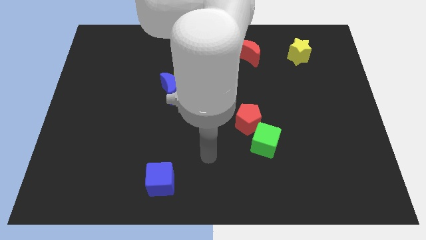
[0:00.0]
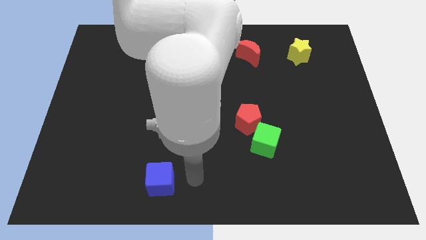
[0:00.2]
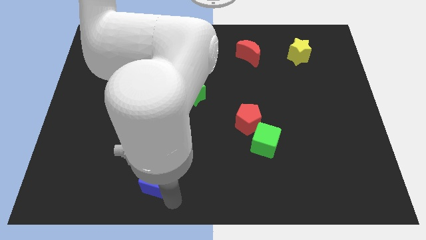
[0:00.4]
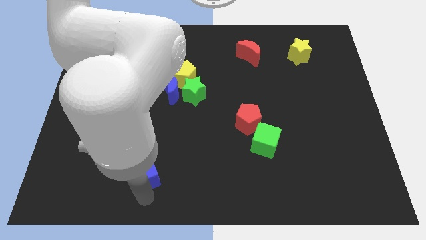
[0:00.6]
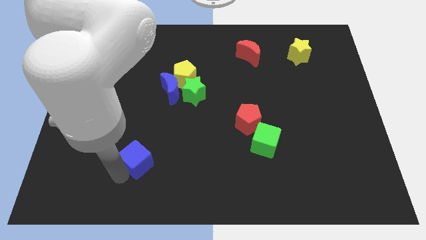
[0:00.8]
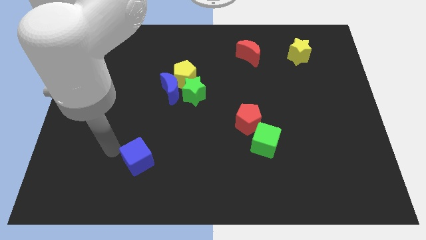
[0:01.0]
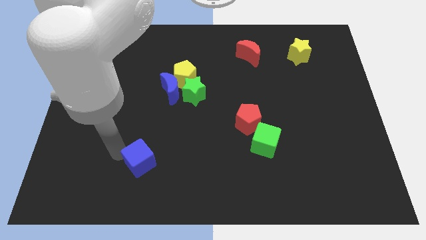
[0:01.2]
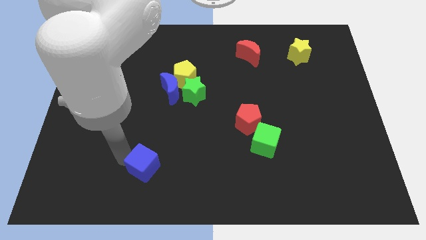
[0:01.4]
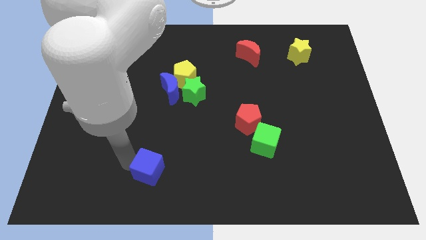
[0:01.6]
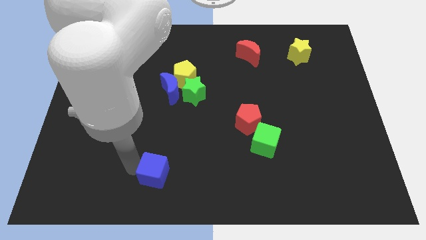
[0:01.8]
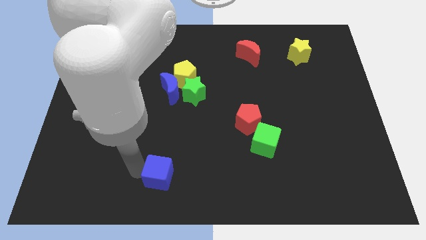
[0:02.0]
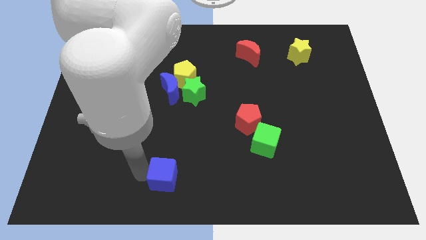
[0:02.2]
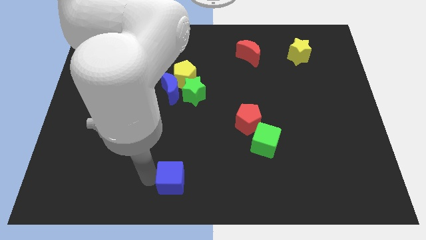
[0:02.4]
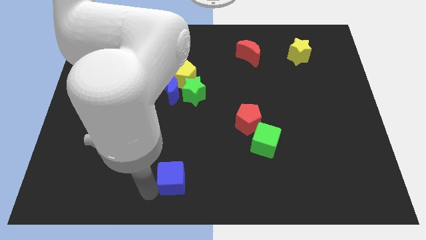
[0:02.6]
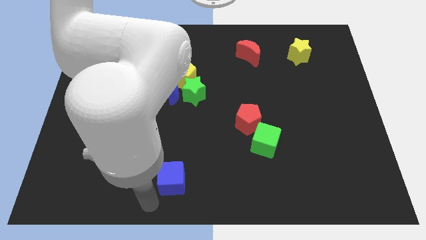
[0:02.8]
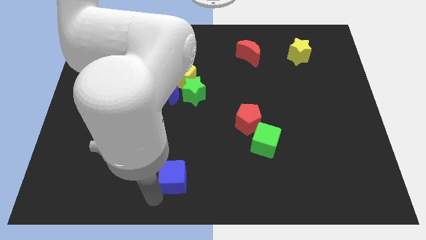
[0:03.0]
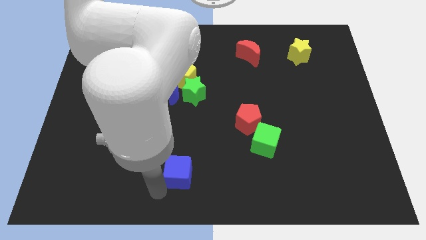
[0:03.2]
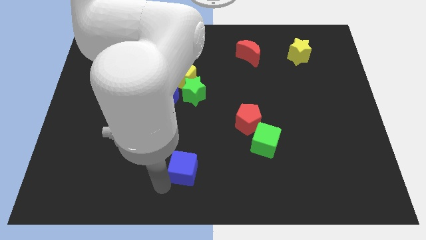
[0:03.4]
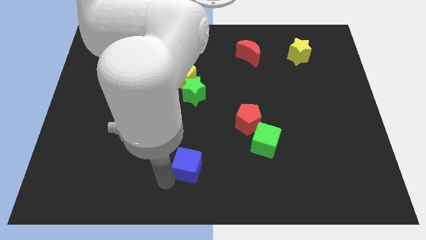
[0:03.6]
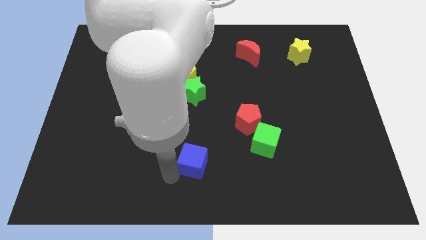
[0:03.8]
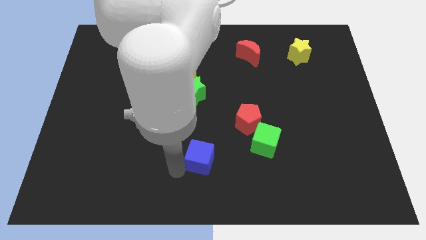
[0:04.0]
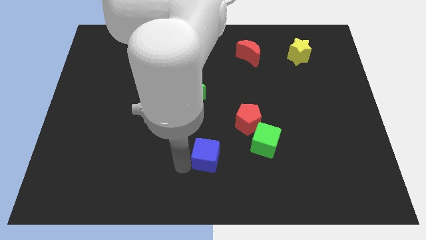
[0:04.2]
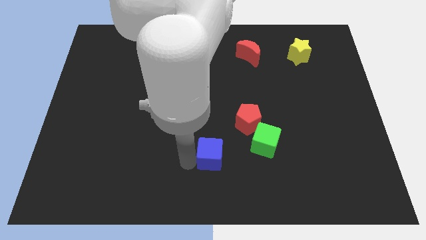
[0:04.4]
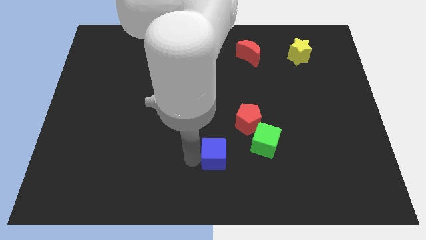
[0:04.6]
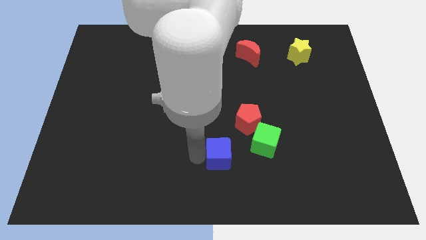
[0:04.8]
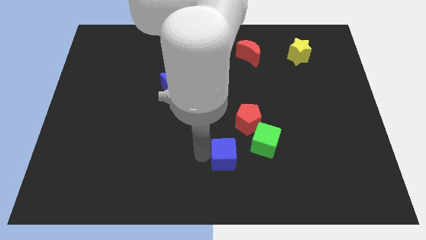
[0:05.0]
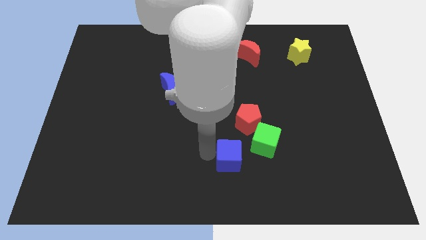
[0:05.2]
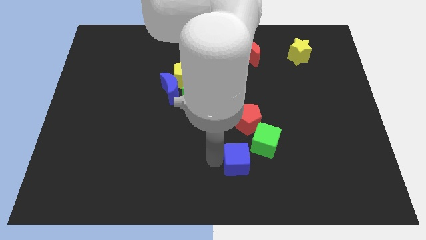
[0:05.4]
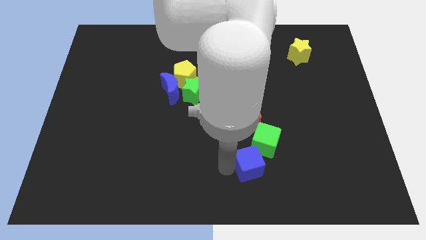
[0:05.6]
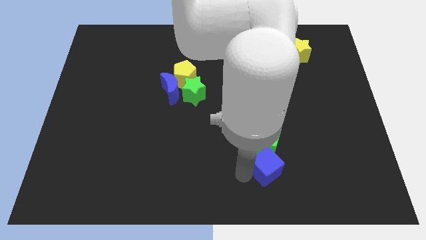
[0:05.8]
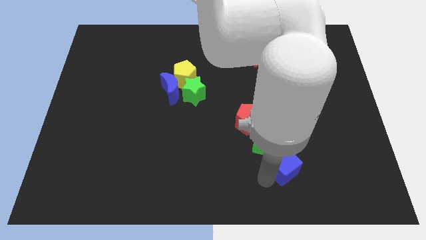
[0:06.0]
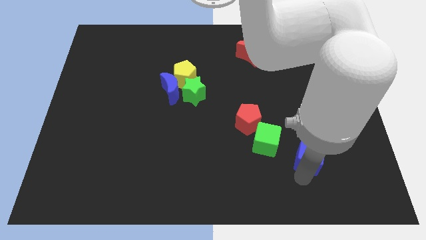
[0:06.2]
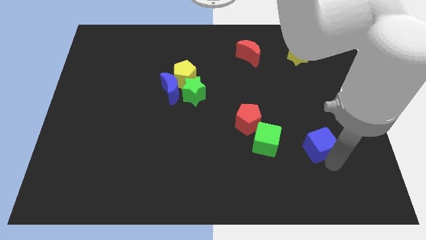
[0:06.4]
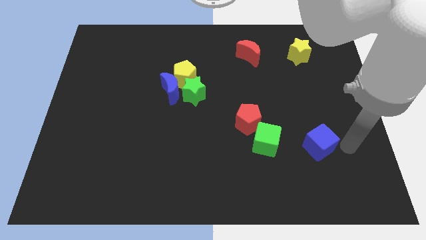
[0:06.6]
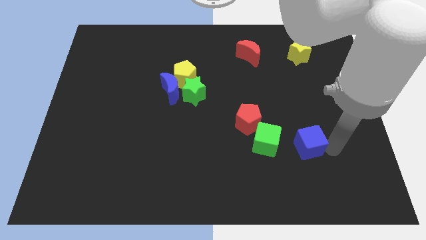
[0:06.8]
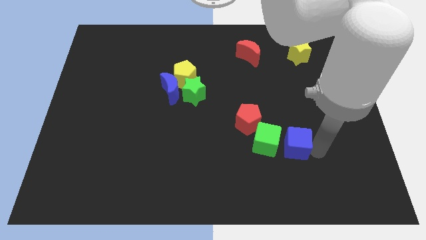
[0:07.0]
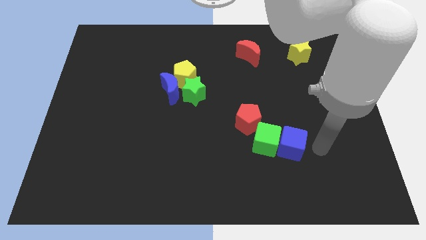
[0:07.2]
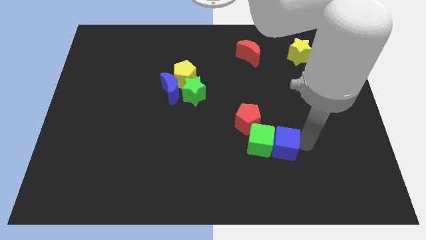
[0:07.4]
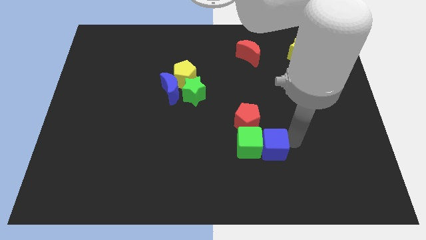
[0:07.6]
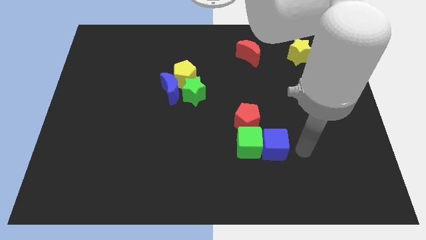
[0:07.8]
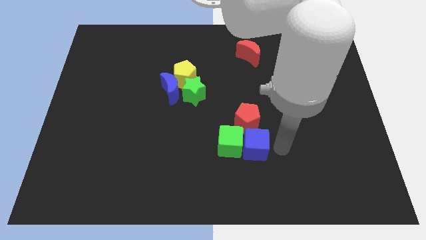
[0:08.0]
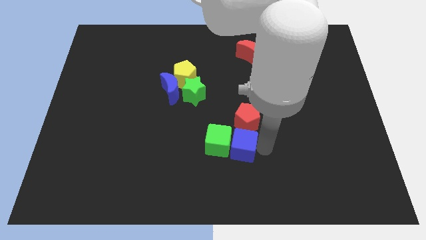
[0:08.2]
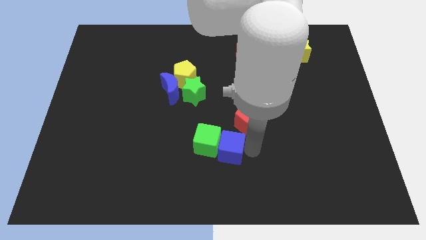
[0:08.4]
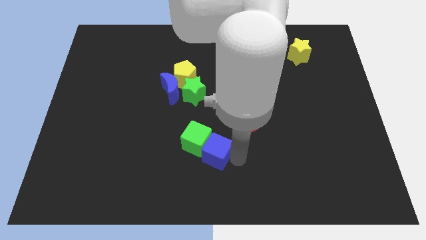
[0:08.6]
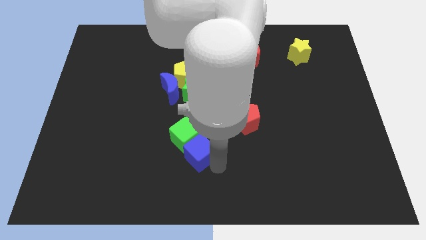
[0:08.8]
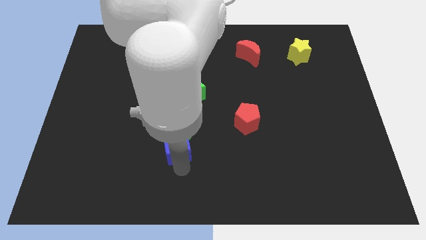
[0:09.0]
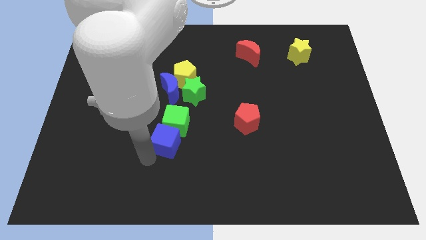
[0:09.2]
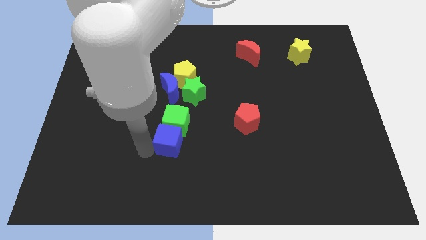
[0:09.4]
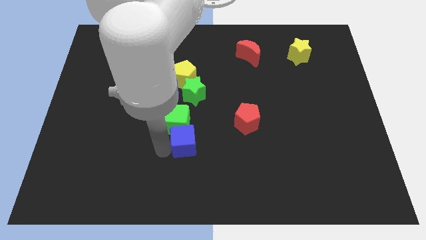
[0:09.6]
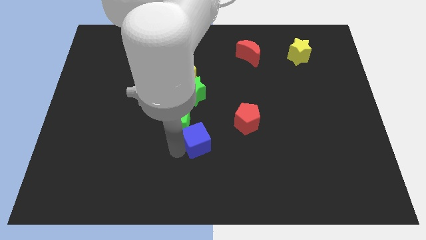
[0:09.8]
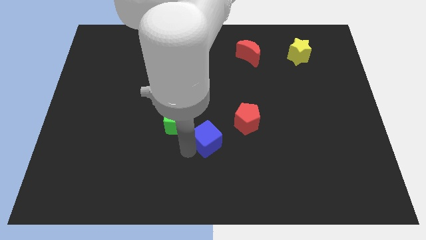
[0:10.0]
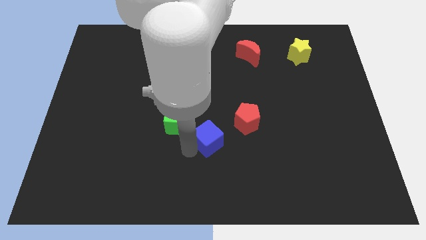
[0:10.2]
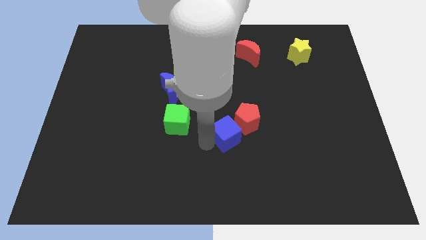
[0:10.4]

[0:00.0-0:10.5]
push the blue cube next to the red pentagon

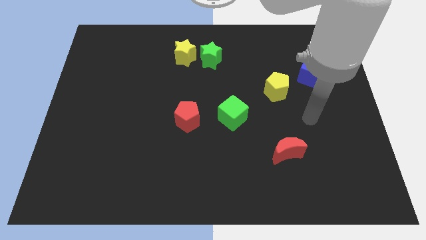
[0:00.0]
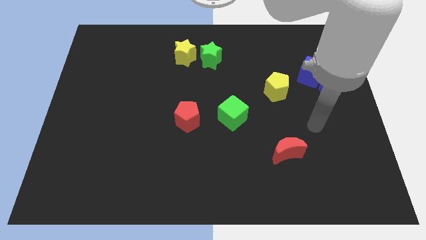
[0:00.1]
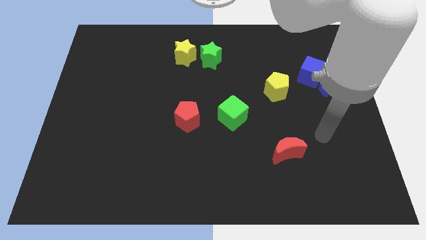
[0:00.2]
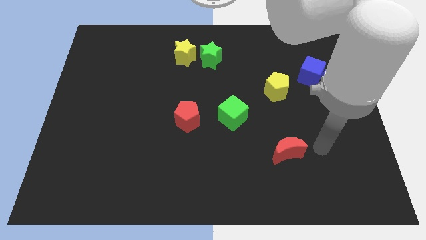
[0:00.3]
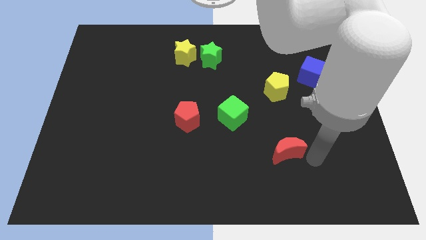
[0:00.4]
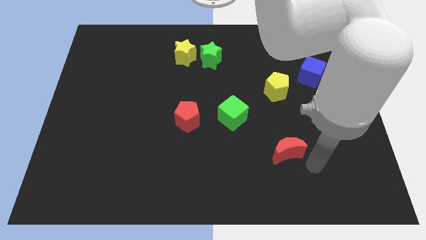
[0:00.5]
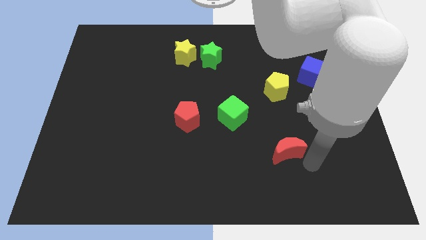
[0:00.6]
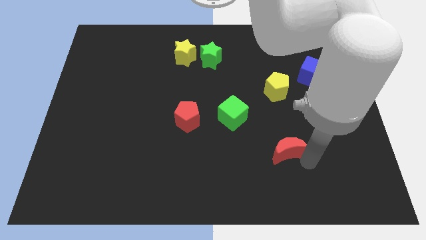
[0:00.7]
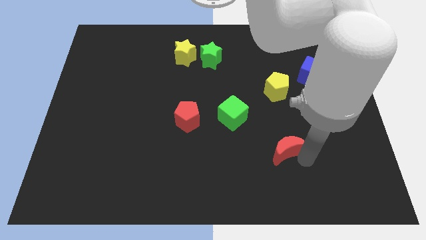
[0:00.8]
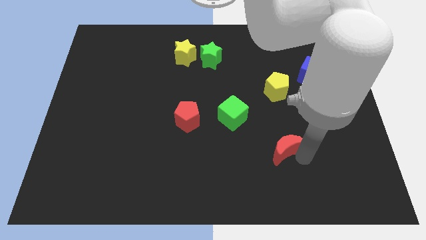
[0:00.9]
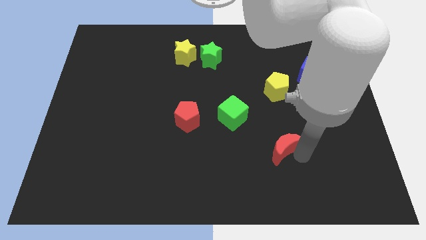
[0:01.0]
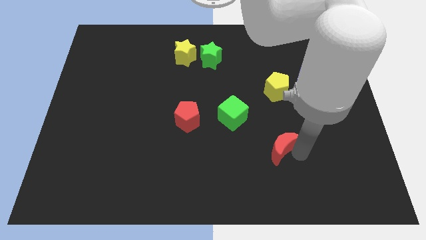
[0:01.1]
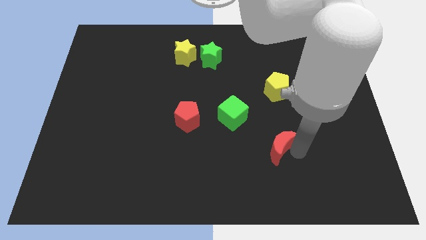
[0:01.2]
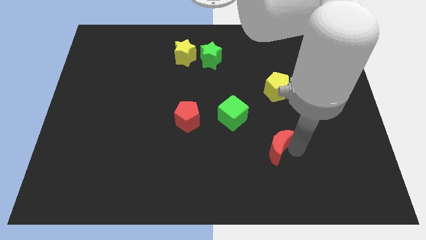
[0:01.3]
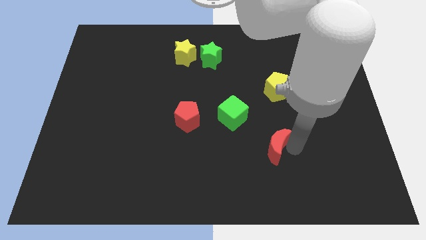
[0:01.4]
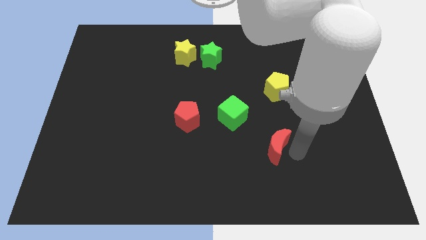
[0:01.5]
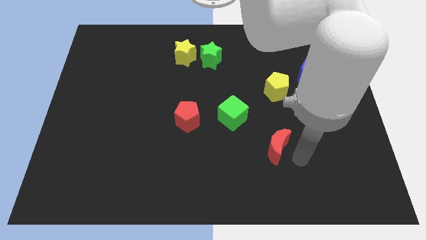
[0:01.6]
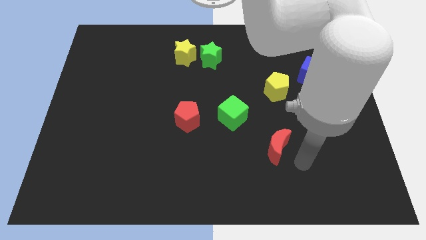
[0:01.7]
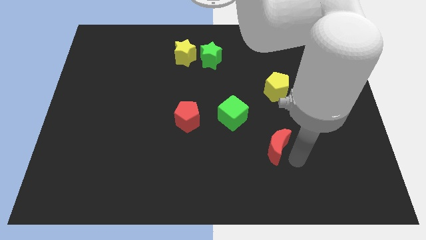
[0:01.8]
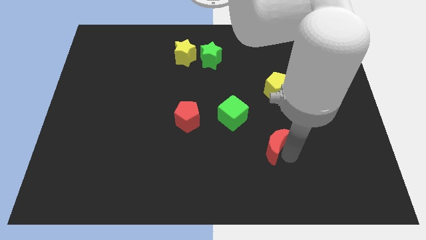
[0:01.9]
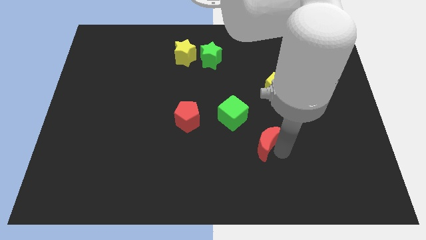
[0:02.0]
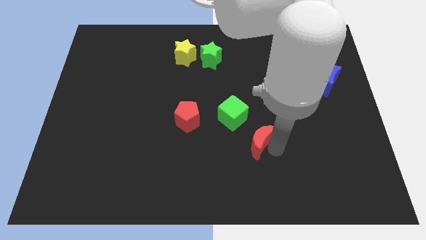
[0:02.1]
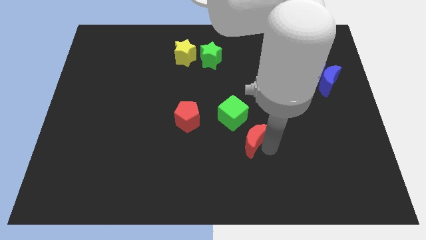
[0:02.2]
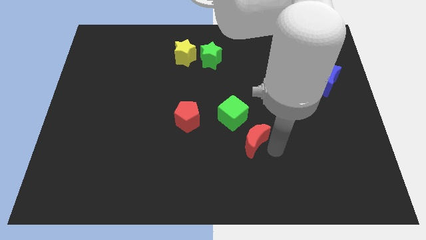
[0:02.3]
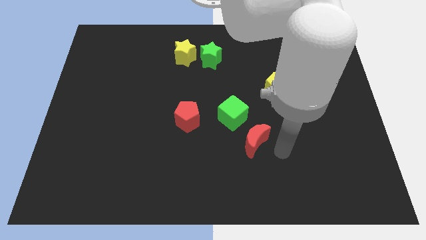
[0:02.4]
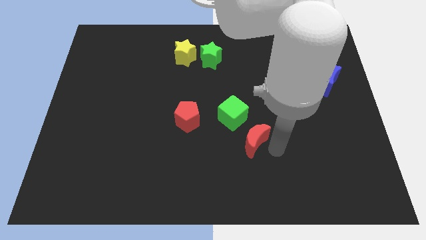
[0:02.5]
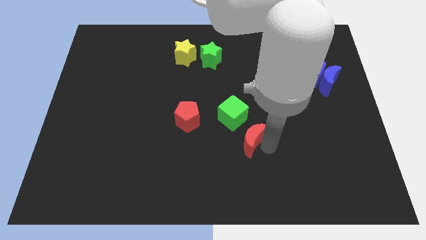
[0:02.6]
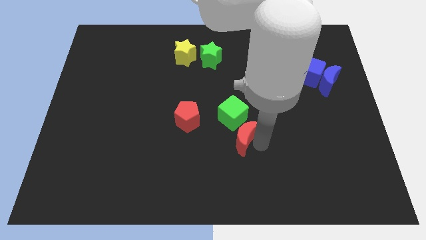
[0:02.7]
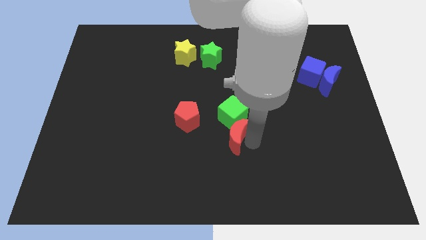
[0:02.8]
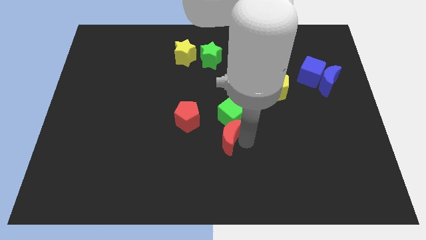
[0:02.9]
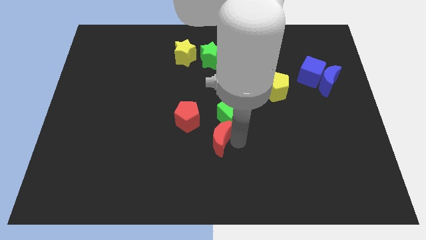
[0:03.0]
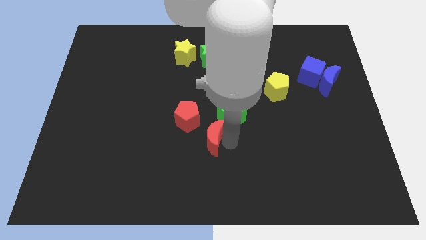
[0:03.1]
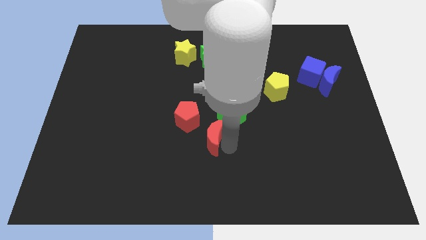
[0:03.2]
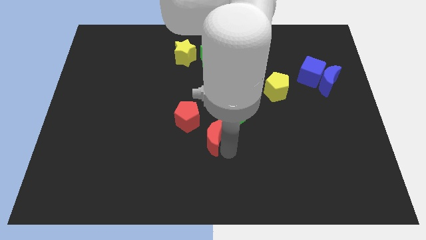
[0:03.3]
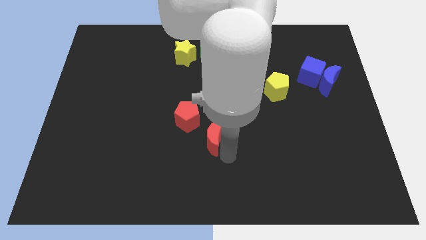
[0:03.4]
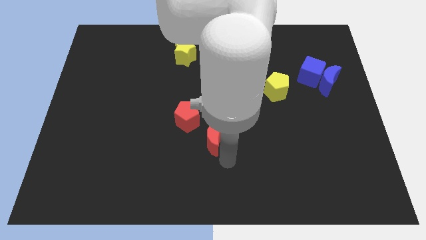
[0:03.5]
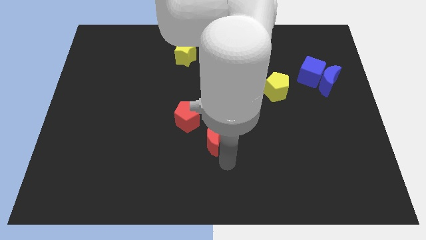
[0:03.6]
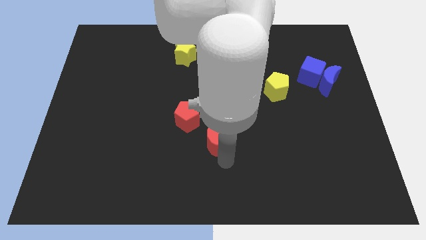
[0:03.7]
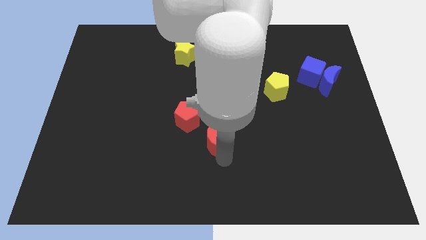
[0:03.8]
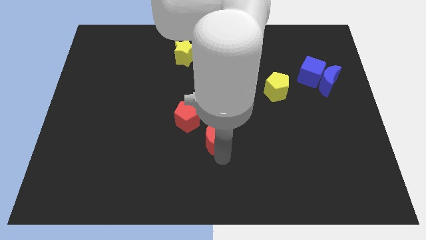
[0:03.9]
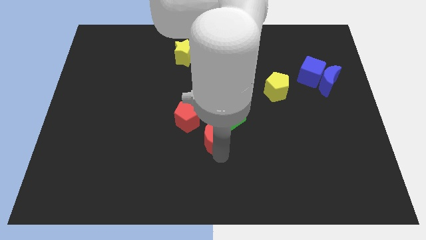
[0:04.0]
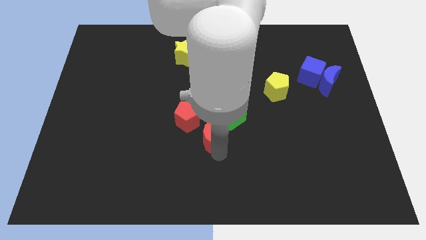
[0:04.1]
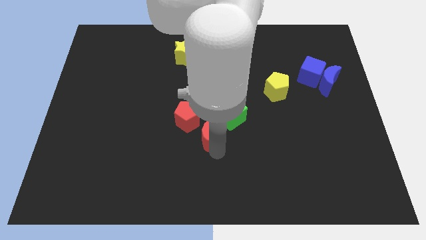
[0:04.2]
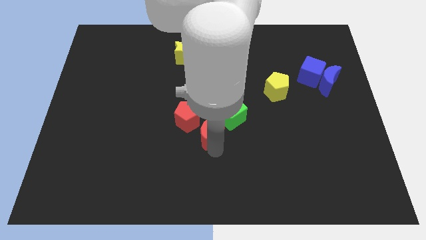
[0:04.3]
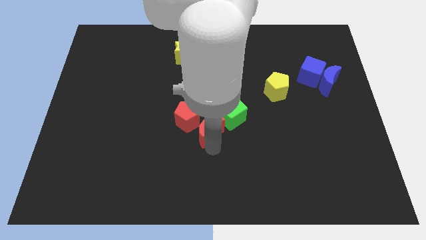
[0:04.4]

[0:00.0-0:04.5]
slide the red moon to the red pentagon
